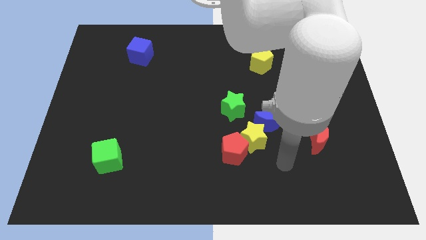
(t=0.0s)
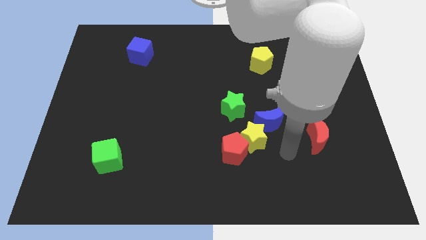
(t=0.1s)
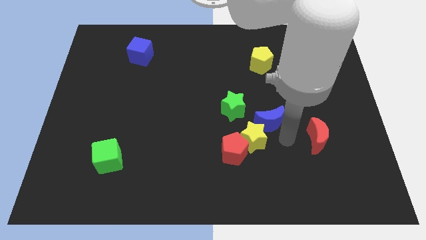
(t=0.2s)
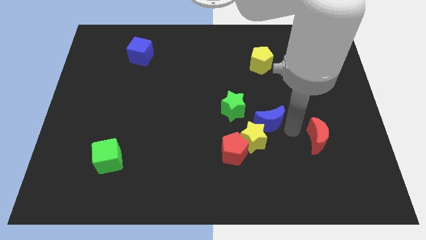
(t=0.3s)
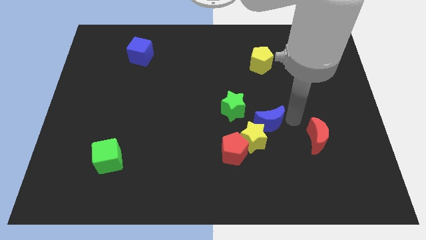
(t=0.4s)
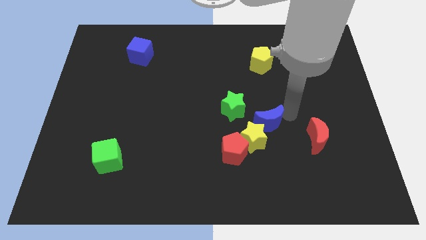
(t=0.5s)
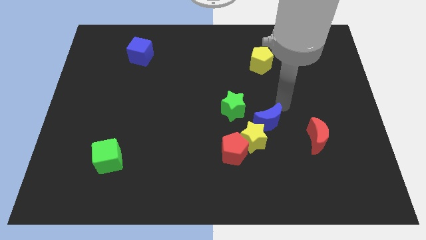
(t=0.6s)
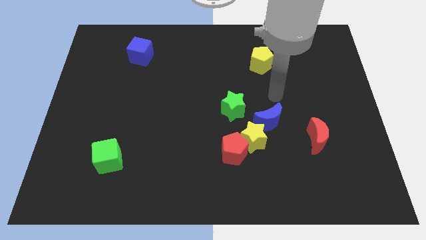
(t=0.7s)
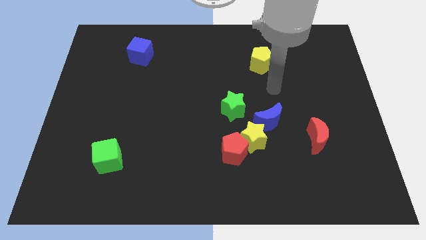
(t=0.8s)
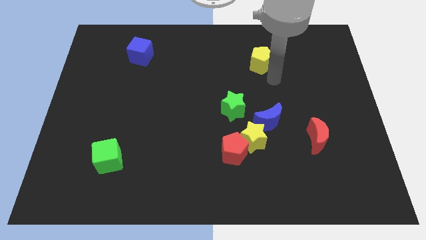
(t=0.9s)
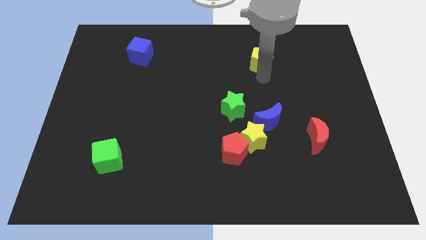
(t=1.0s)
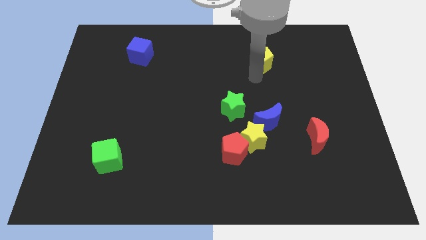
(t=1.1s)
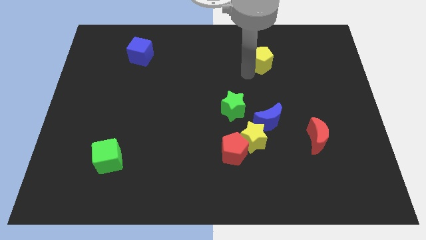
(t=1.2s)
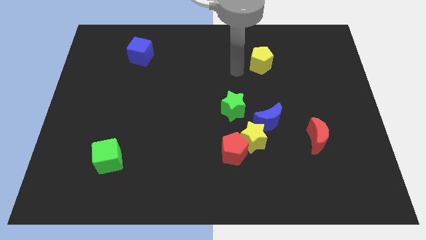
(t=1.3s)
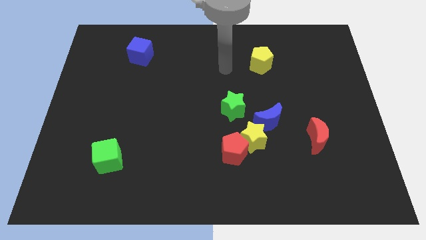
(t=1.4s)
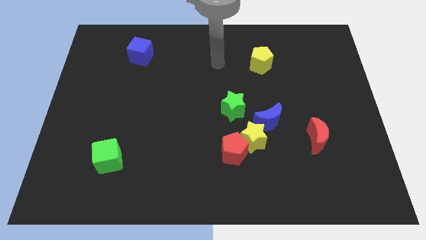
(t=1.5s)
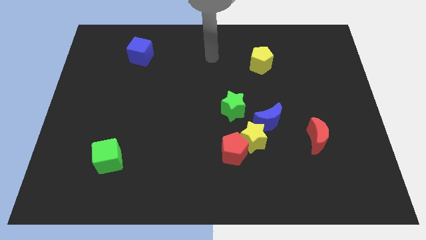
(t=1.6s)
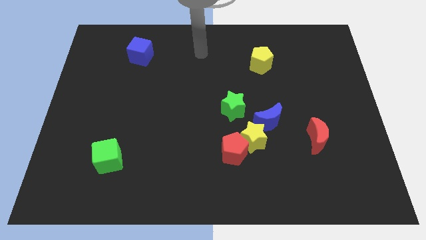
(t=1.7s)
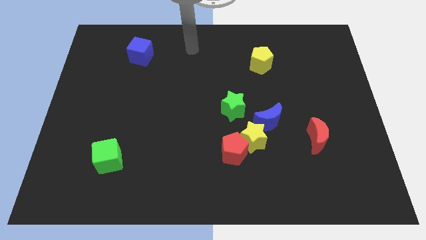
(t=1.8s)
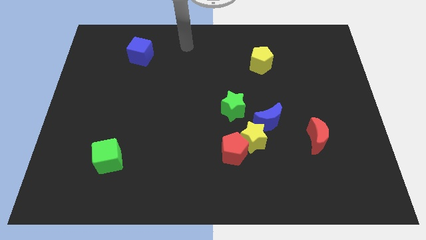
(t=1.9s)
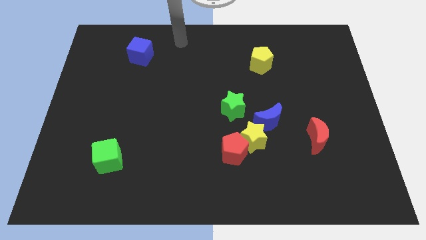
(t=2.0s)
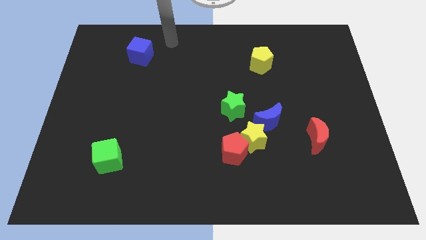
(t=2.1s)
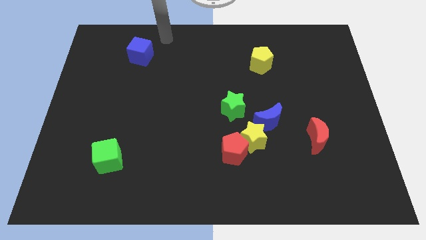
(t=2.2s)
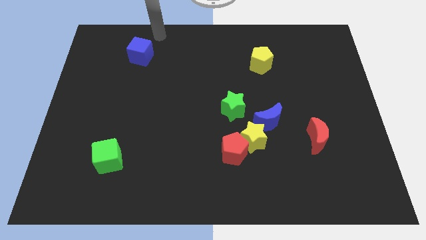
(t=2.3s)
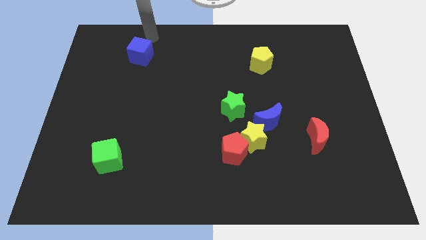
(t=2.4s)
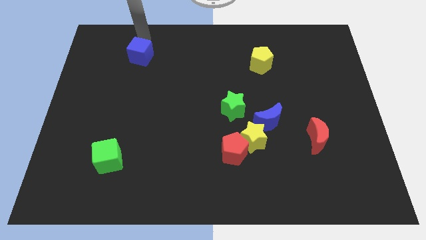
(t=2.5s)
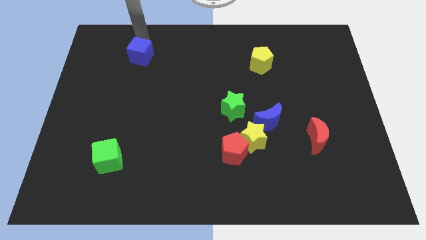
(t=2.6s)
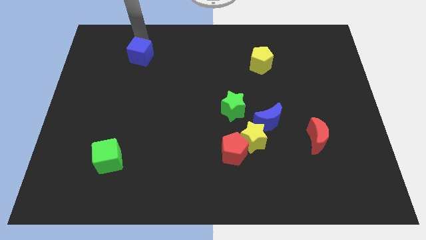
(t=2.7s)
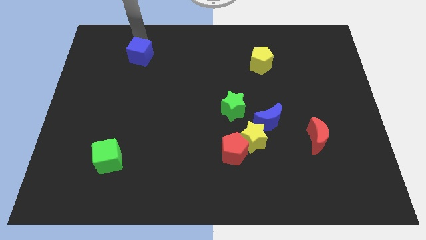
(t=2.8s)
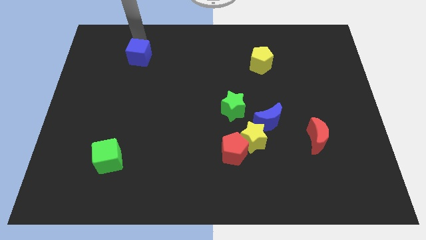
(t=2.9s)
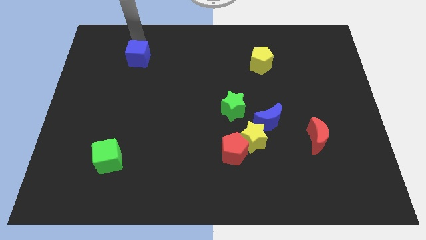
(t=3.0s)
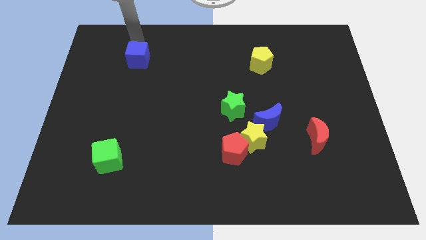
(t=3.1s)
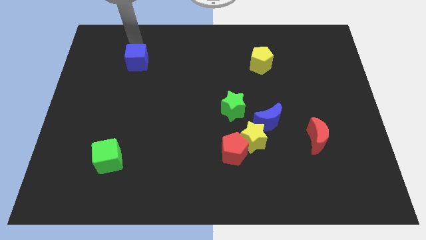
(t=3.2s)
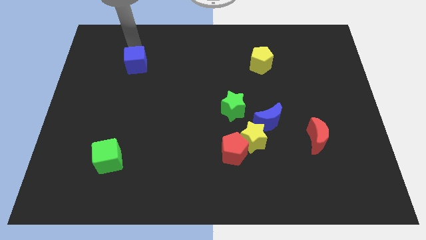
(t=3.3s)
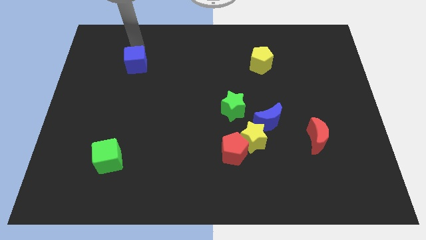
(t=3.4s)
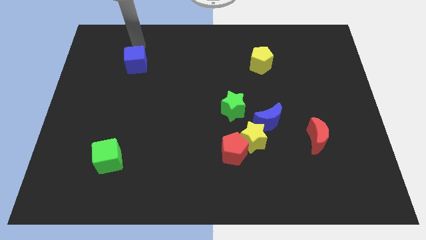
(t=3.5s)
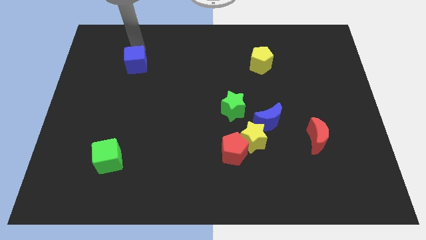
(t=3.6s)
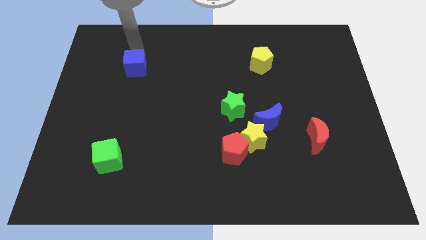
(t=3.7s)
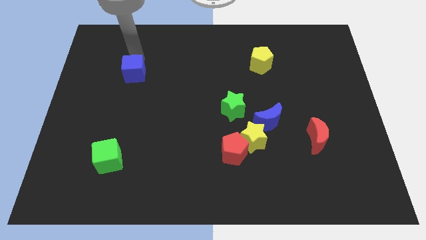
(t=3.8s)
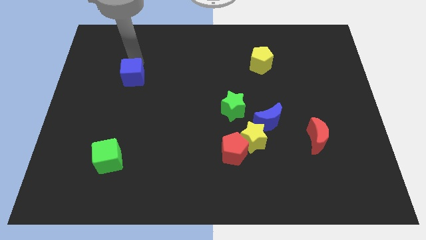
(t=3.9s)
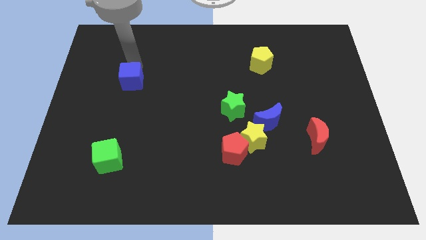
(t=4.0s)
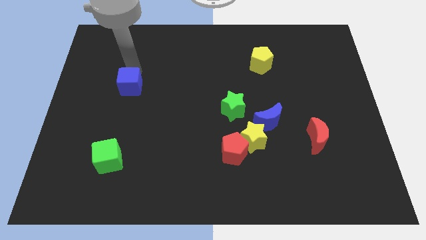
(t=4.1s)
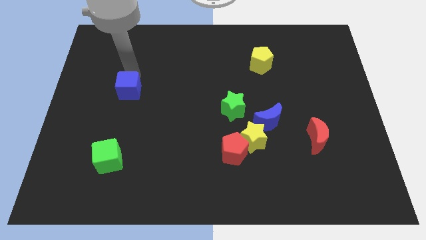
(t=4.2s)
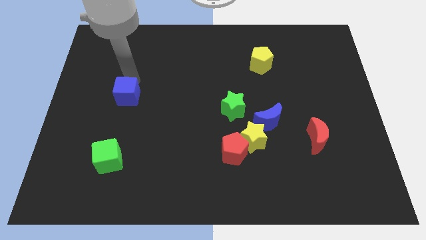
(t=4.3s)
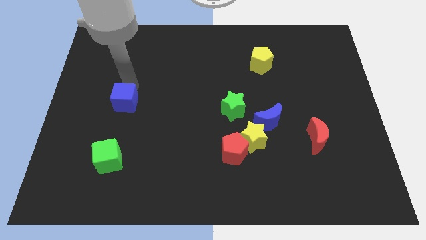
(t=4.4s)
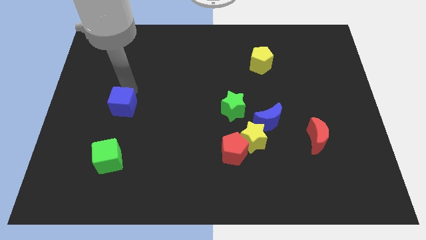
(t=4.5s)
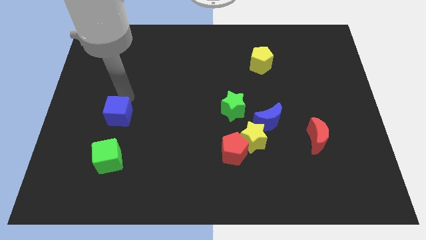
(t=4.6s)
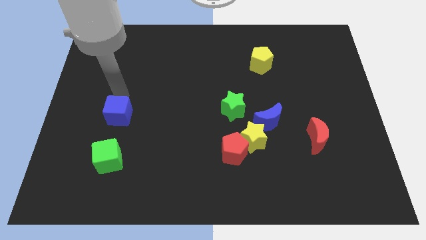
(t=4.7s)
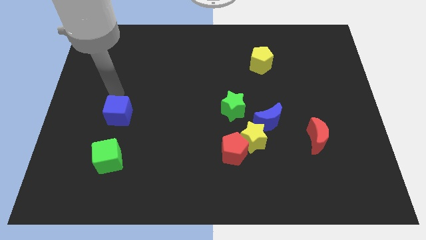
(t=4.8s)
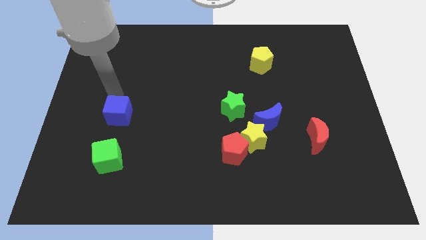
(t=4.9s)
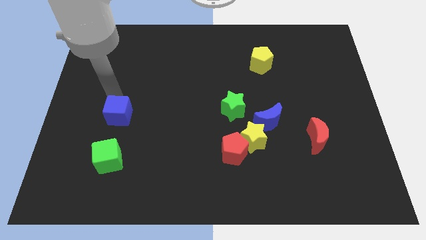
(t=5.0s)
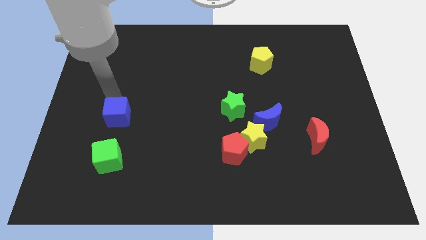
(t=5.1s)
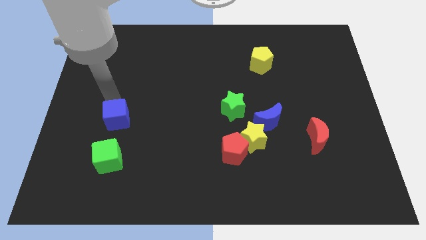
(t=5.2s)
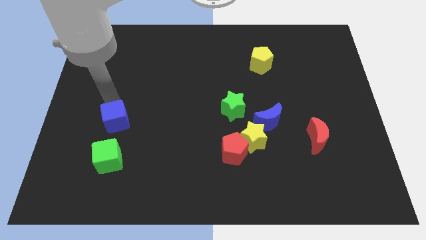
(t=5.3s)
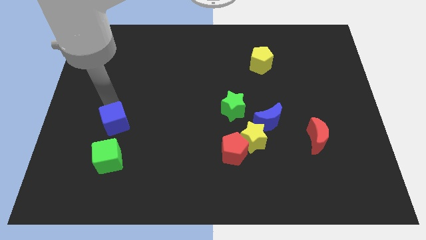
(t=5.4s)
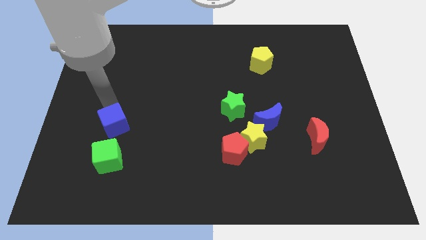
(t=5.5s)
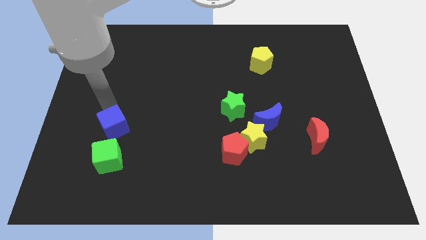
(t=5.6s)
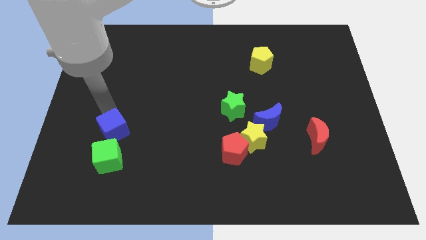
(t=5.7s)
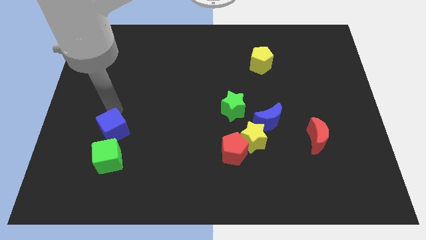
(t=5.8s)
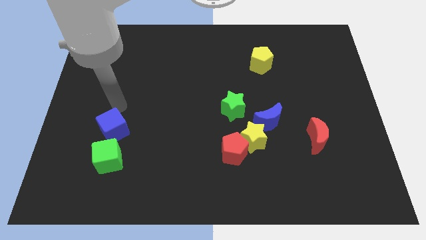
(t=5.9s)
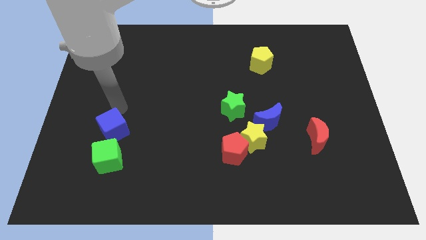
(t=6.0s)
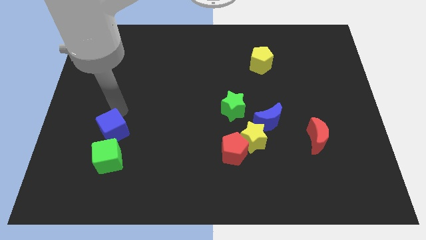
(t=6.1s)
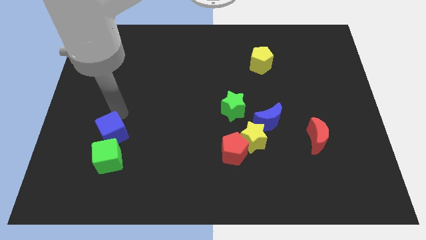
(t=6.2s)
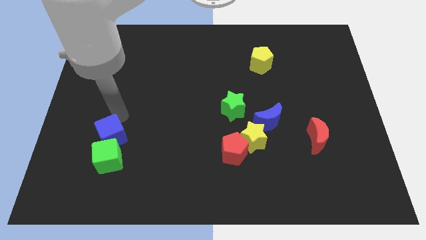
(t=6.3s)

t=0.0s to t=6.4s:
put the blue cube next to the green cube

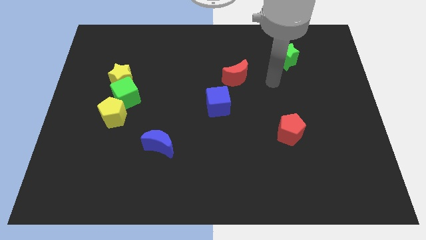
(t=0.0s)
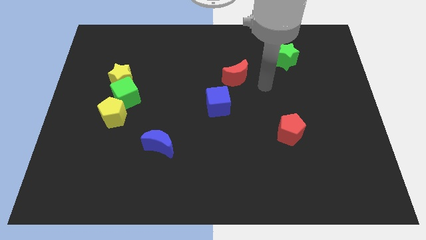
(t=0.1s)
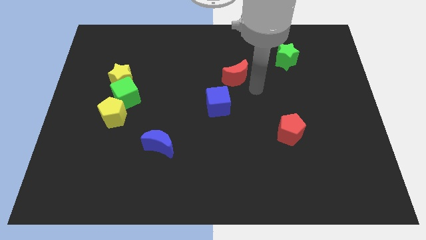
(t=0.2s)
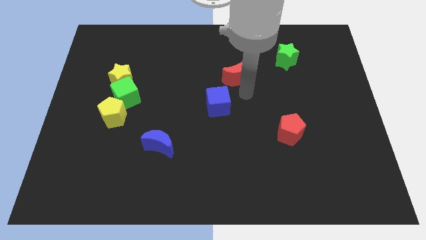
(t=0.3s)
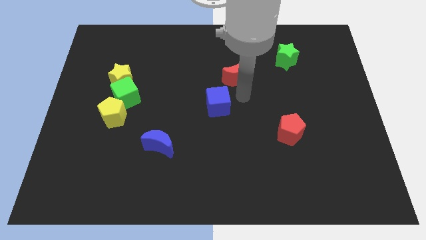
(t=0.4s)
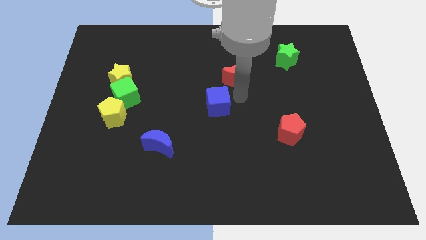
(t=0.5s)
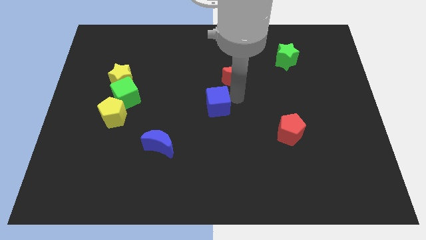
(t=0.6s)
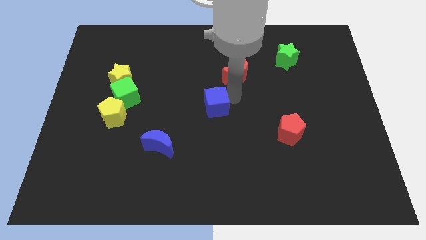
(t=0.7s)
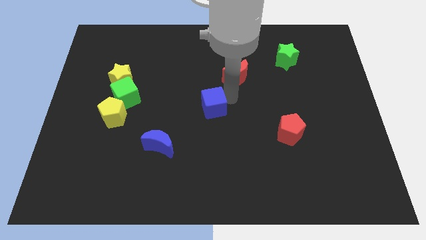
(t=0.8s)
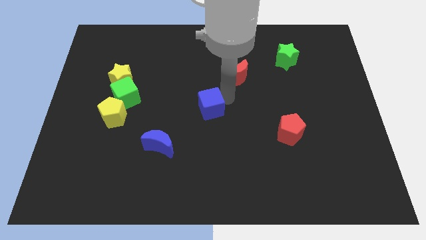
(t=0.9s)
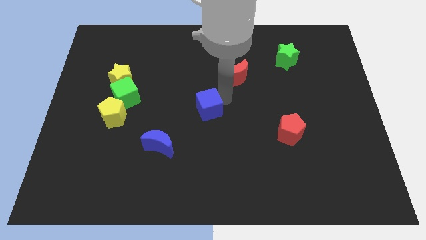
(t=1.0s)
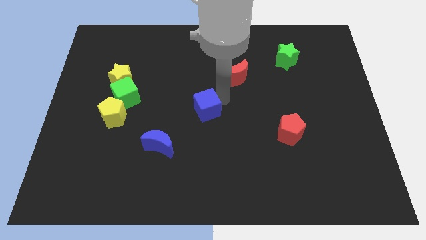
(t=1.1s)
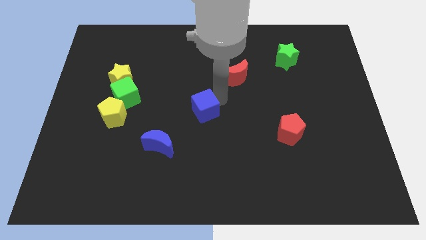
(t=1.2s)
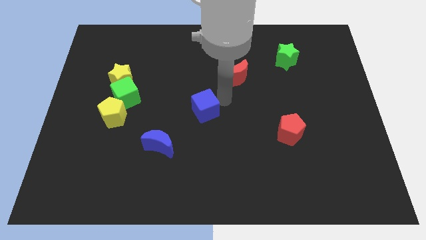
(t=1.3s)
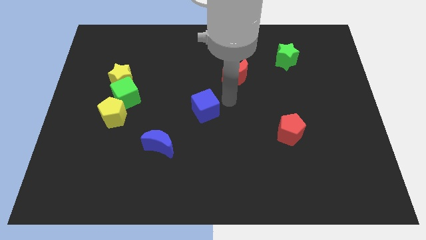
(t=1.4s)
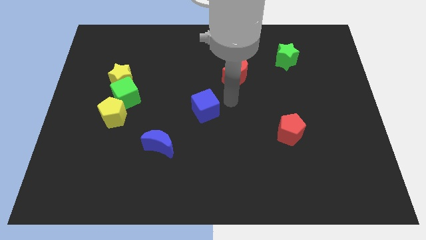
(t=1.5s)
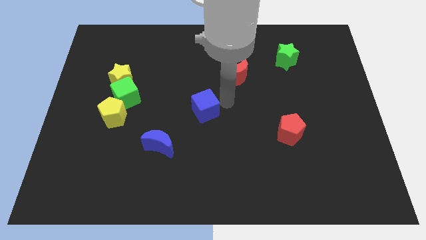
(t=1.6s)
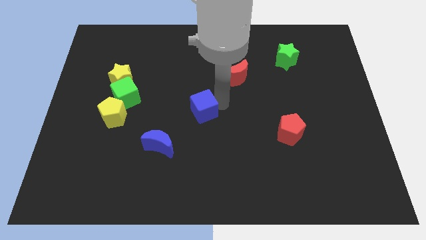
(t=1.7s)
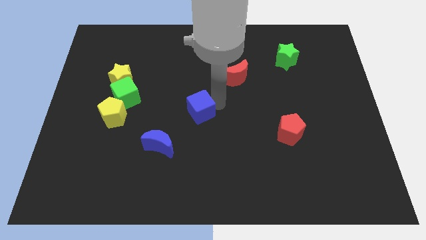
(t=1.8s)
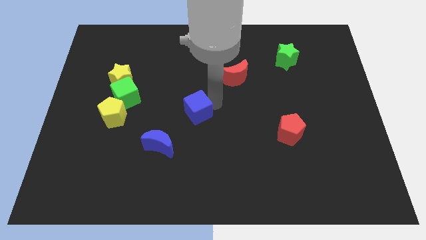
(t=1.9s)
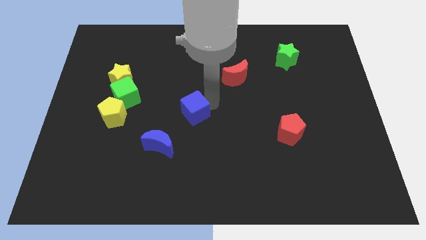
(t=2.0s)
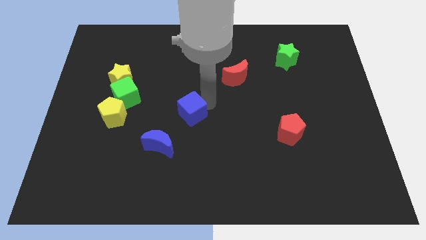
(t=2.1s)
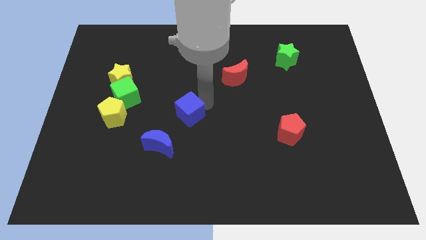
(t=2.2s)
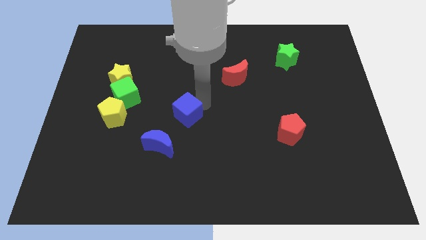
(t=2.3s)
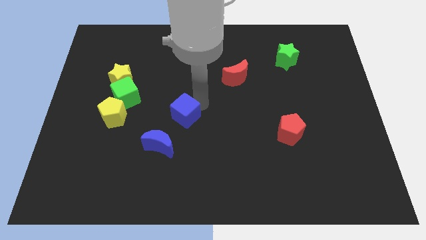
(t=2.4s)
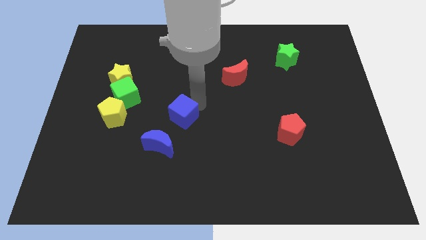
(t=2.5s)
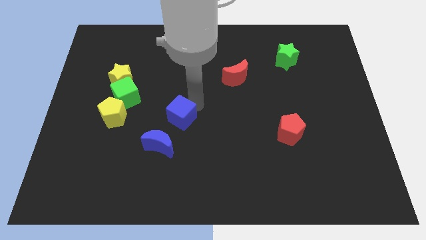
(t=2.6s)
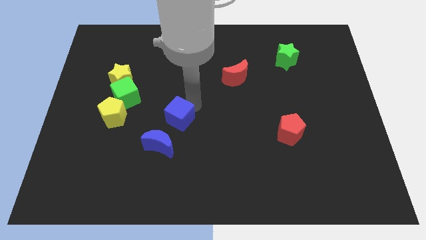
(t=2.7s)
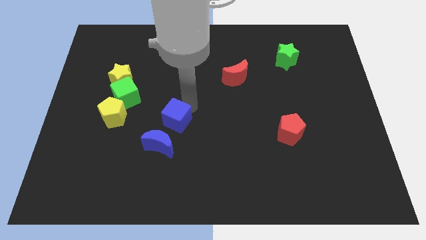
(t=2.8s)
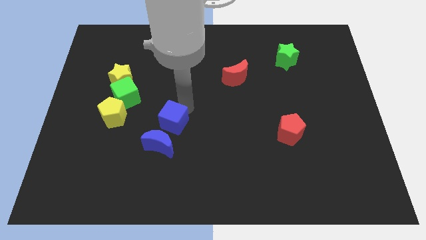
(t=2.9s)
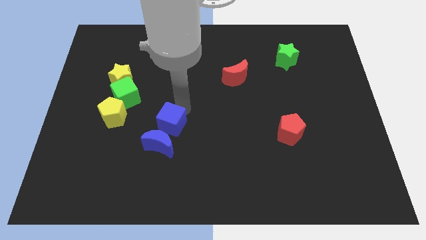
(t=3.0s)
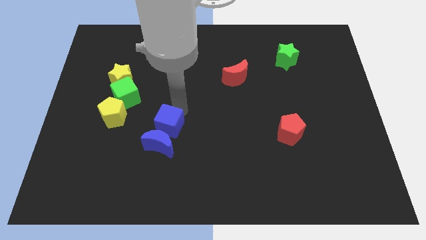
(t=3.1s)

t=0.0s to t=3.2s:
push the blue cube close to the blue moon
